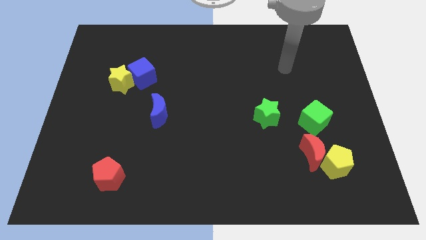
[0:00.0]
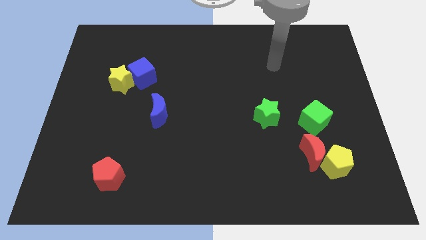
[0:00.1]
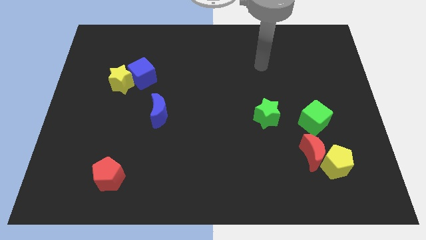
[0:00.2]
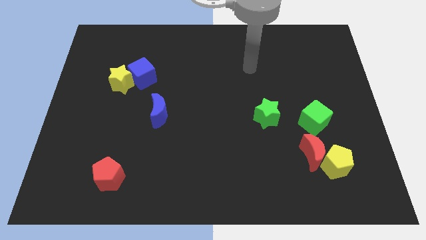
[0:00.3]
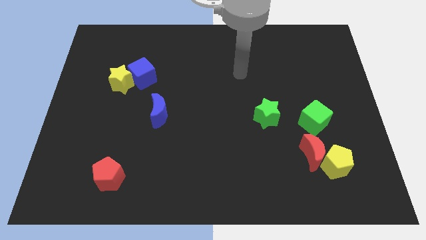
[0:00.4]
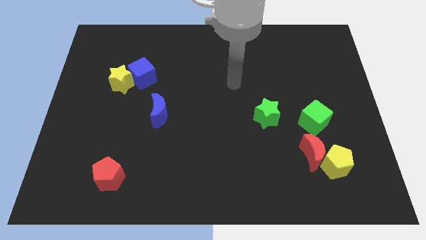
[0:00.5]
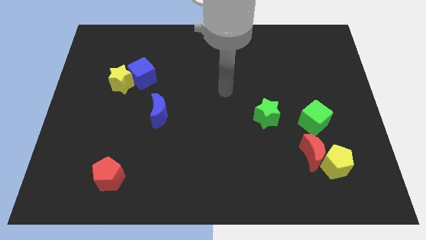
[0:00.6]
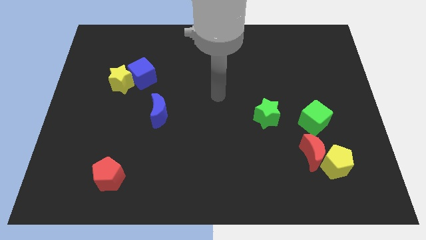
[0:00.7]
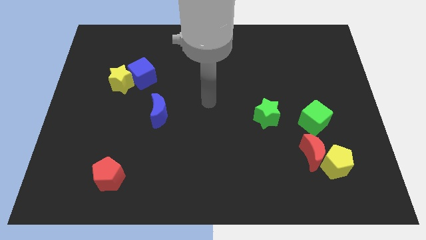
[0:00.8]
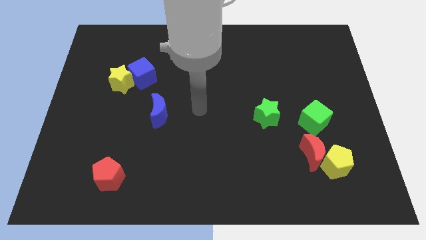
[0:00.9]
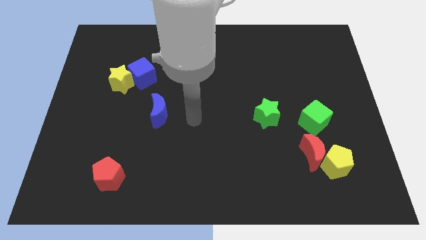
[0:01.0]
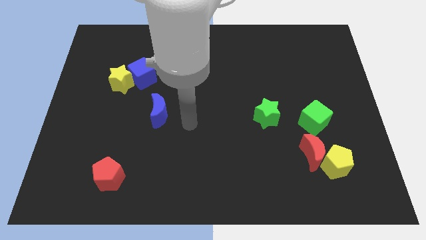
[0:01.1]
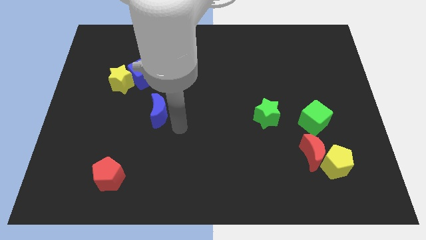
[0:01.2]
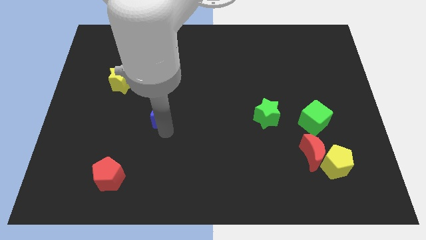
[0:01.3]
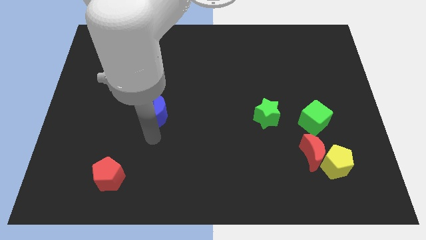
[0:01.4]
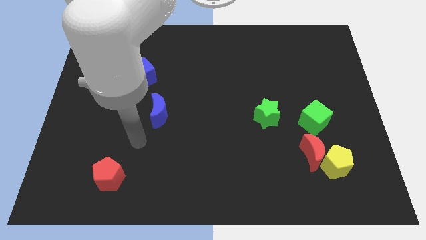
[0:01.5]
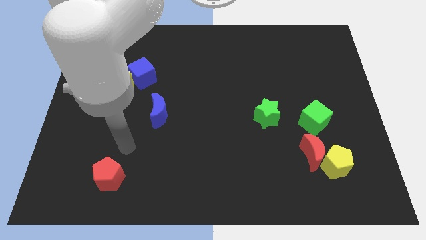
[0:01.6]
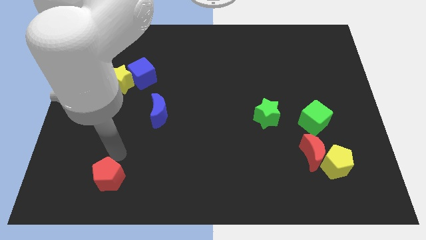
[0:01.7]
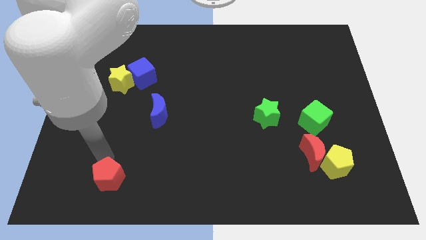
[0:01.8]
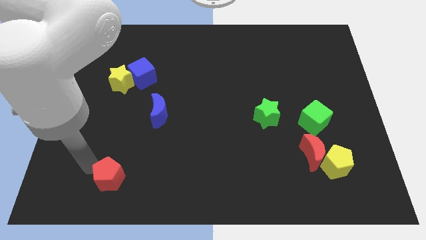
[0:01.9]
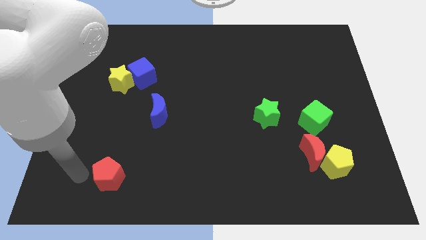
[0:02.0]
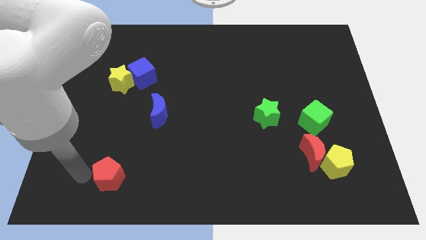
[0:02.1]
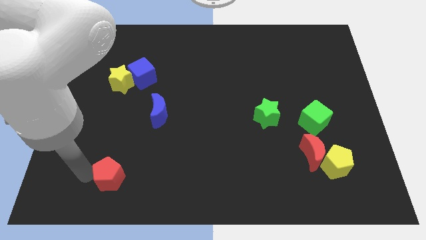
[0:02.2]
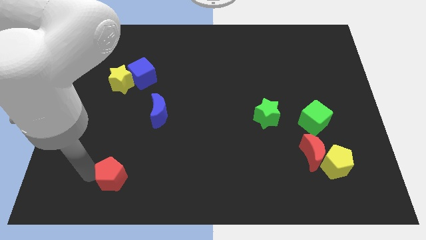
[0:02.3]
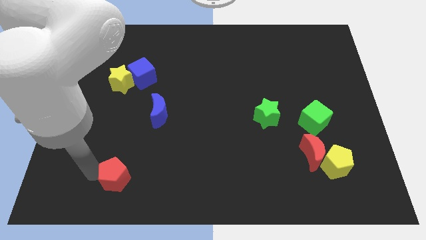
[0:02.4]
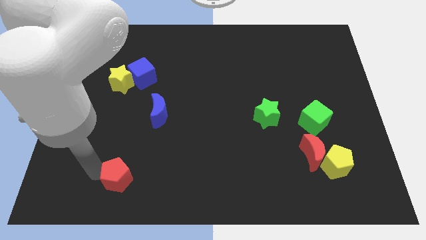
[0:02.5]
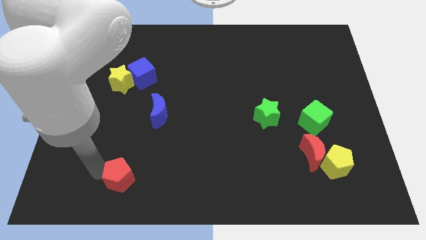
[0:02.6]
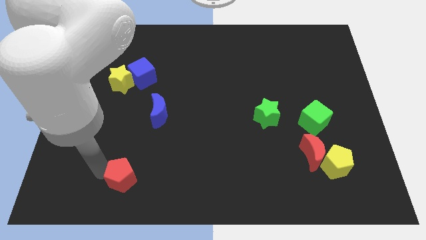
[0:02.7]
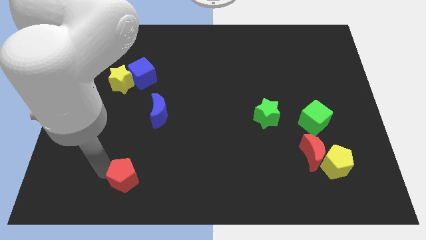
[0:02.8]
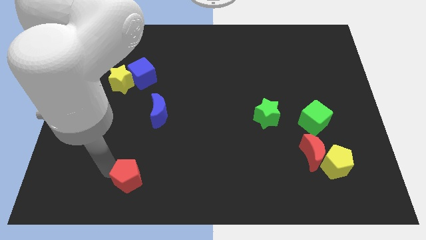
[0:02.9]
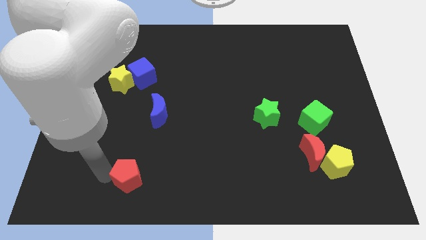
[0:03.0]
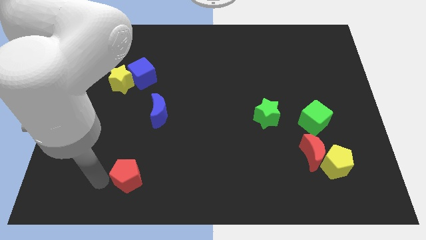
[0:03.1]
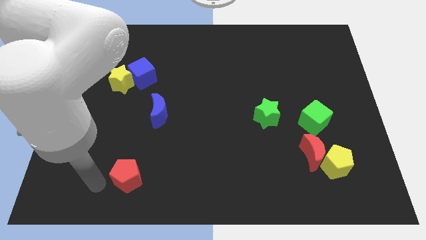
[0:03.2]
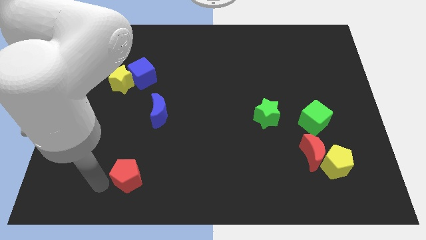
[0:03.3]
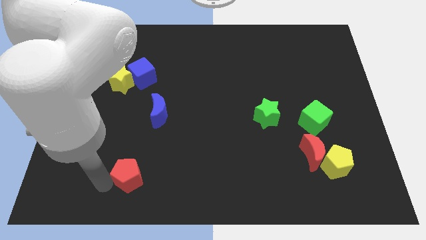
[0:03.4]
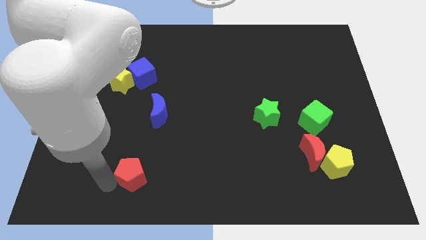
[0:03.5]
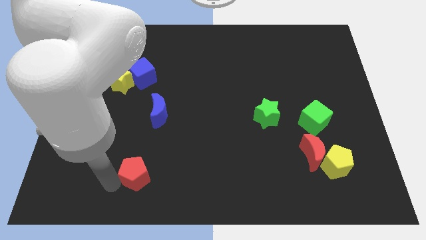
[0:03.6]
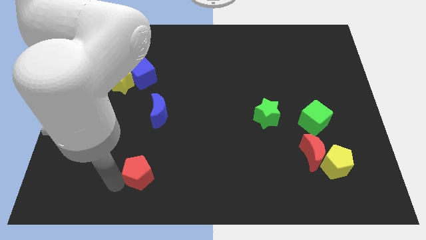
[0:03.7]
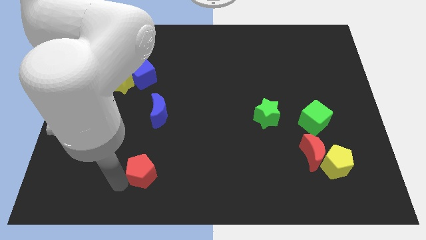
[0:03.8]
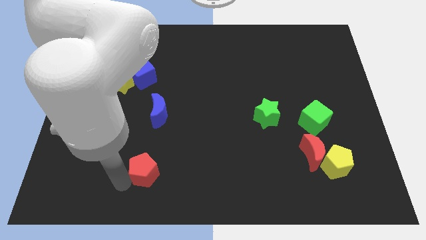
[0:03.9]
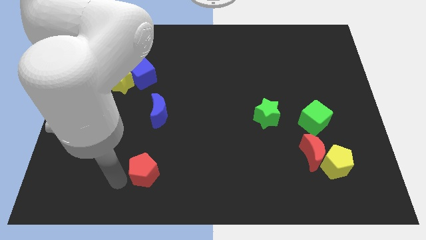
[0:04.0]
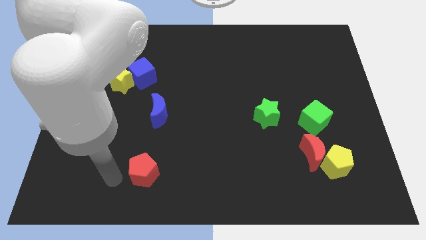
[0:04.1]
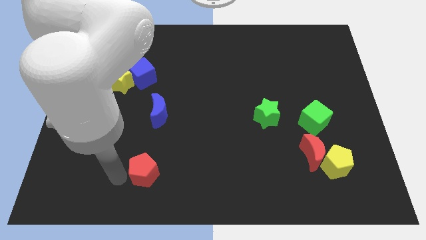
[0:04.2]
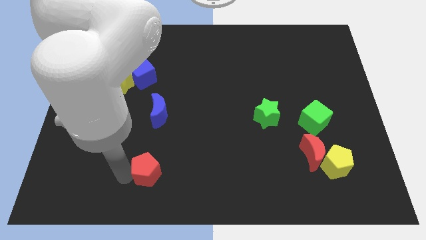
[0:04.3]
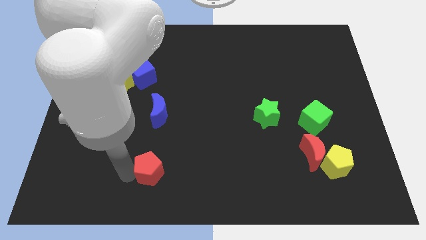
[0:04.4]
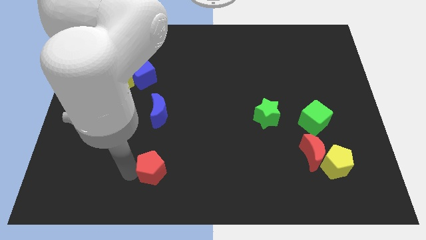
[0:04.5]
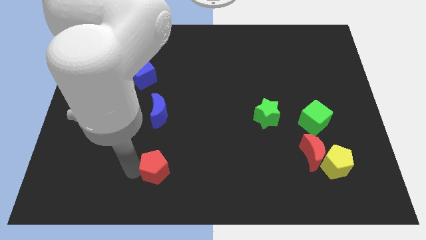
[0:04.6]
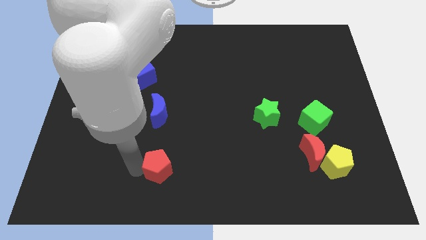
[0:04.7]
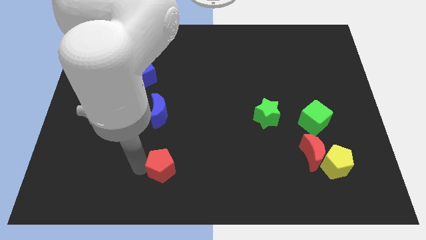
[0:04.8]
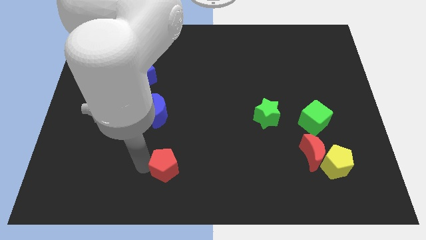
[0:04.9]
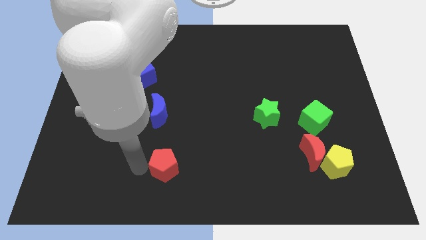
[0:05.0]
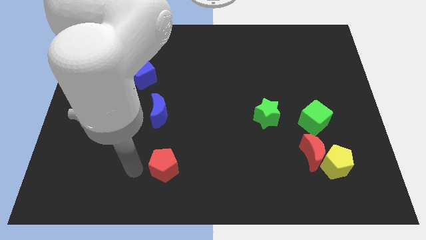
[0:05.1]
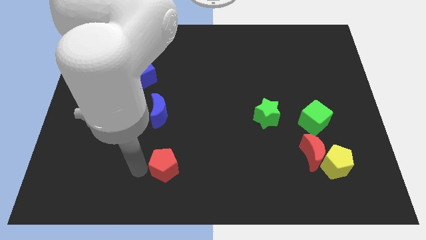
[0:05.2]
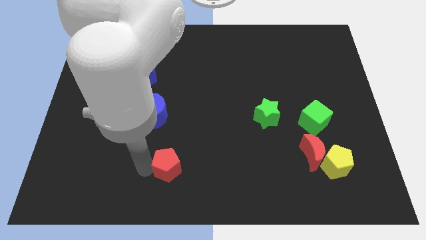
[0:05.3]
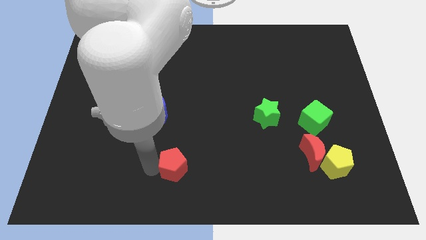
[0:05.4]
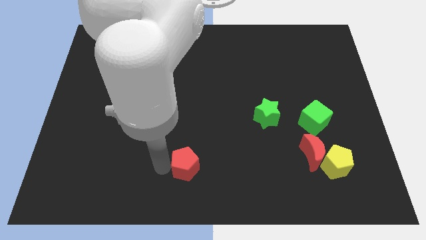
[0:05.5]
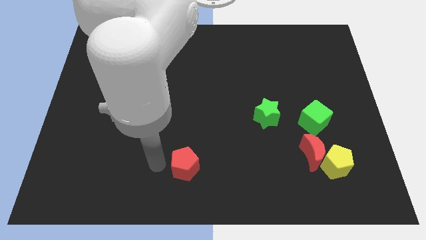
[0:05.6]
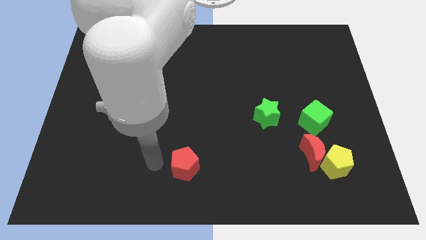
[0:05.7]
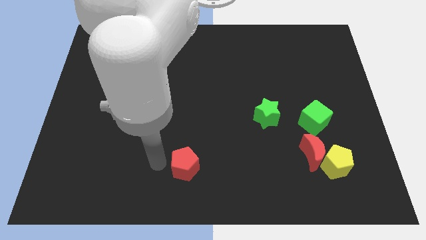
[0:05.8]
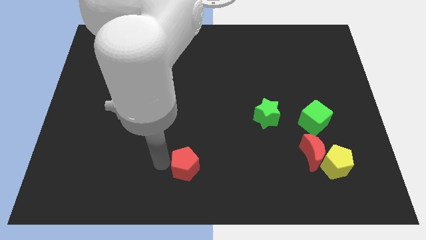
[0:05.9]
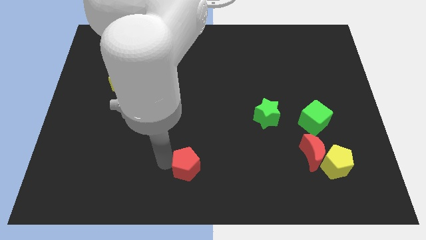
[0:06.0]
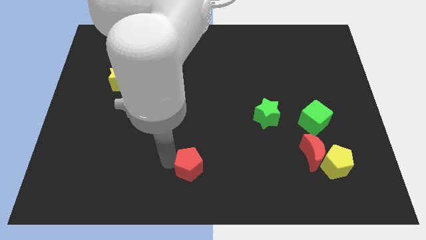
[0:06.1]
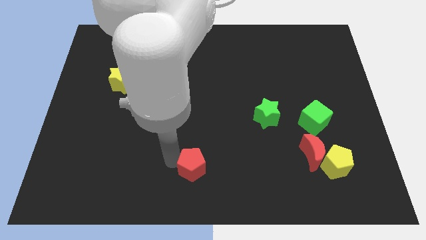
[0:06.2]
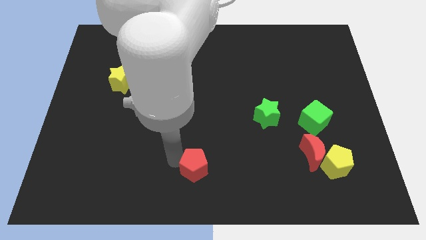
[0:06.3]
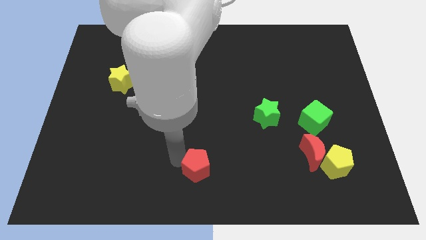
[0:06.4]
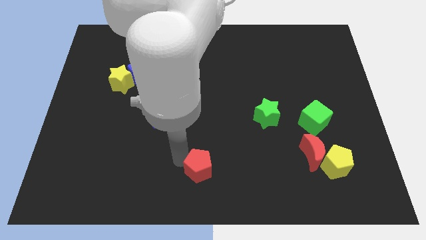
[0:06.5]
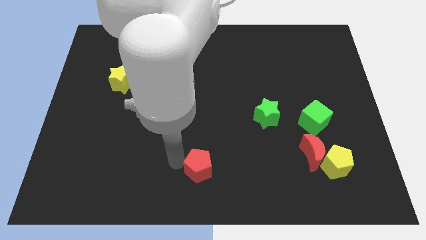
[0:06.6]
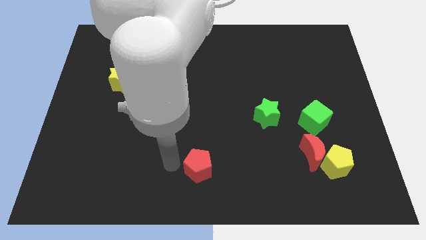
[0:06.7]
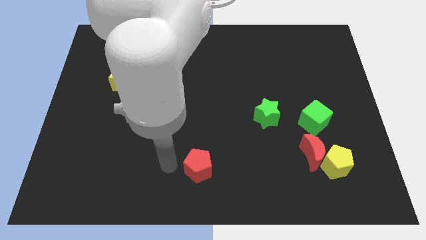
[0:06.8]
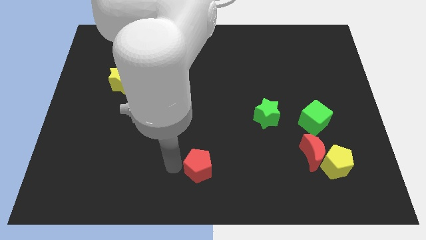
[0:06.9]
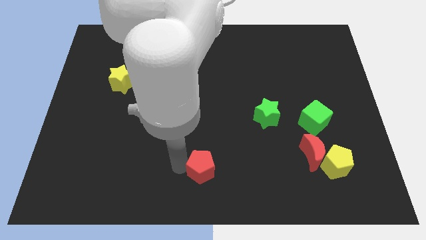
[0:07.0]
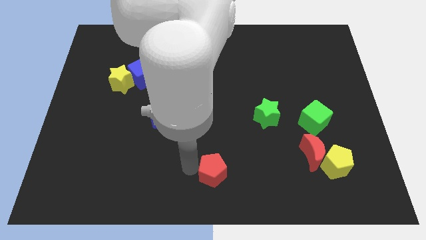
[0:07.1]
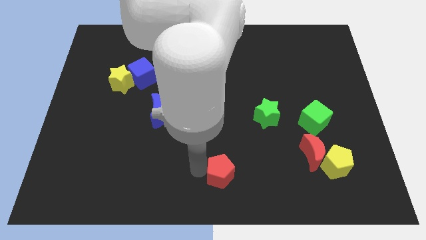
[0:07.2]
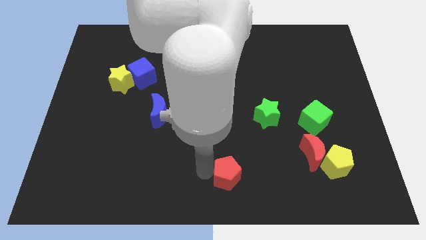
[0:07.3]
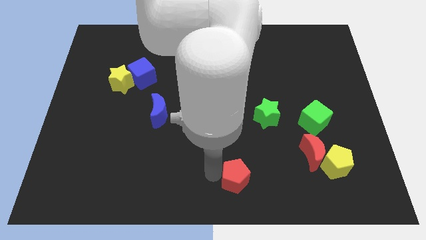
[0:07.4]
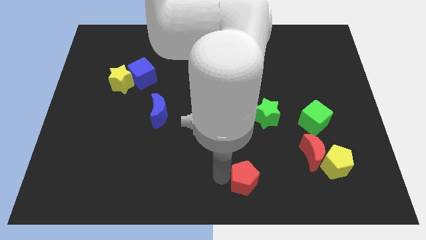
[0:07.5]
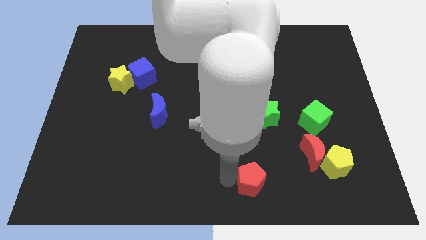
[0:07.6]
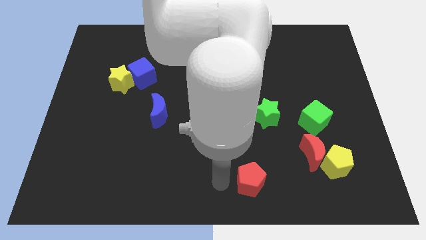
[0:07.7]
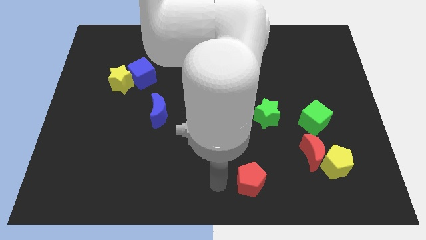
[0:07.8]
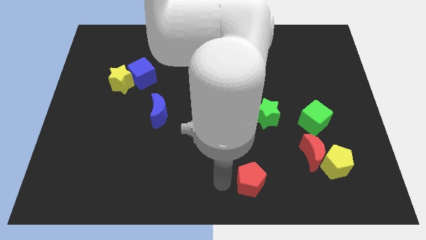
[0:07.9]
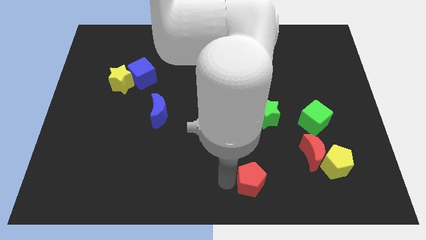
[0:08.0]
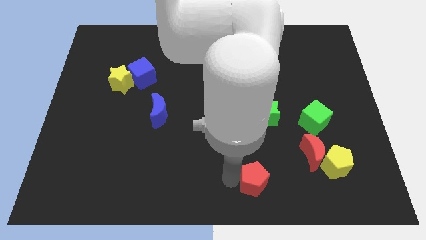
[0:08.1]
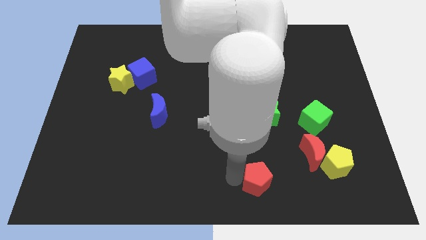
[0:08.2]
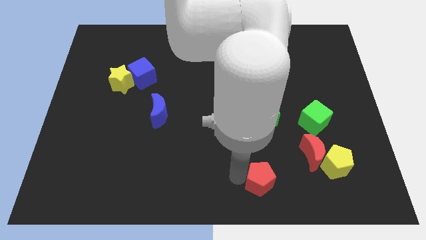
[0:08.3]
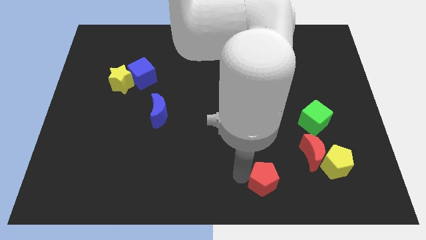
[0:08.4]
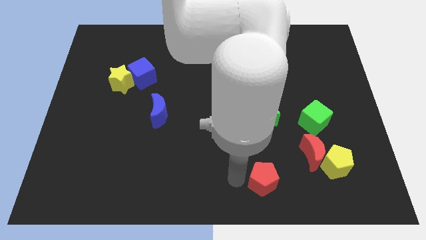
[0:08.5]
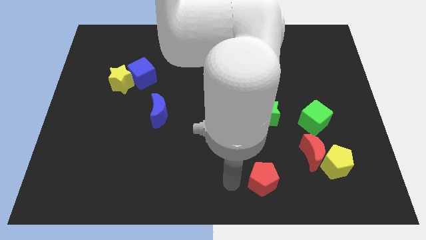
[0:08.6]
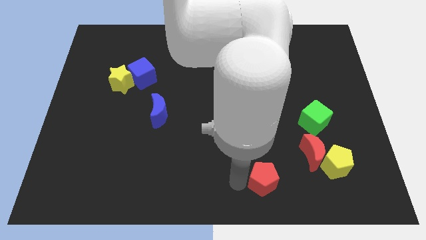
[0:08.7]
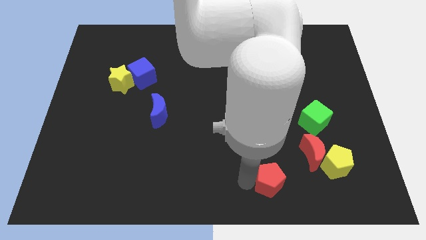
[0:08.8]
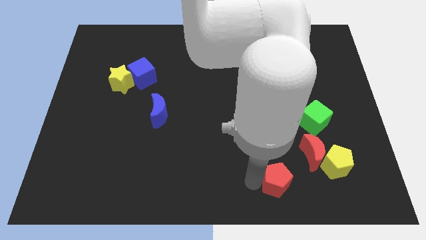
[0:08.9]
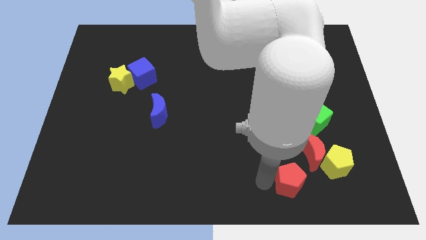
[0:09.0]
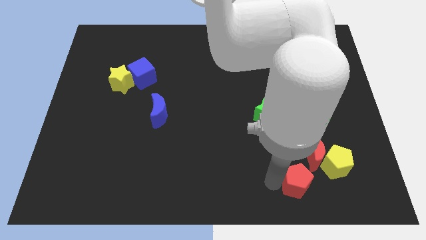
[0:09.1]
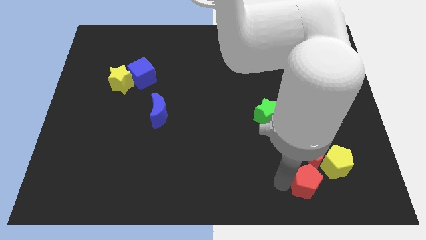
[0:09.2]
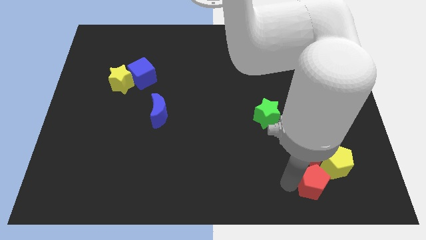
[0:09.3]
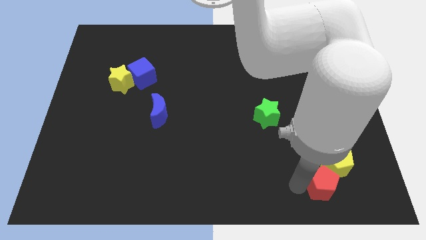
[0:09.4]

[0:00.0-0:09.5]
slide the red pentagon to the bottom side of the green cube
